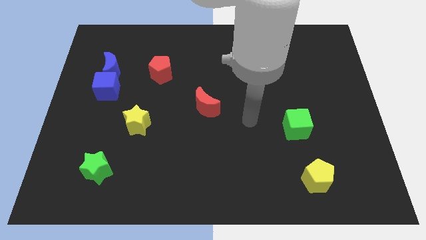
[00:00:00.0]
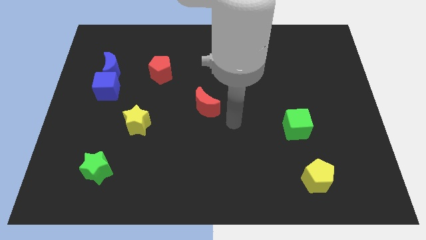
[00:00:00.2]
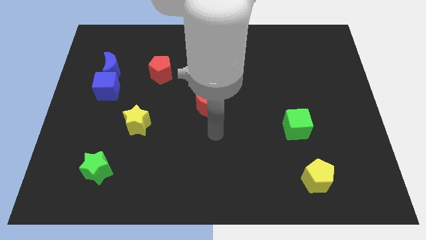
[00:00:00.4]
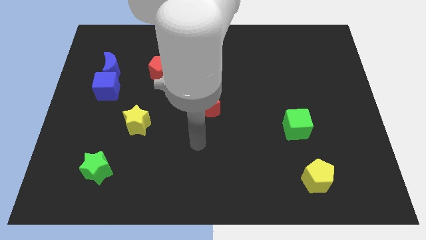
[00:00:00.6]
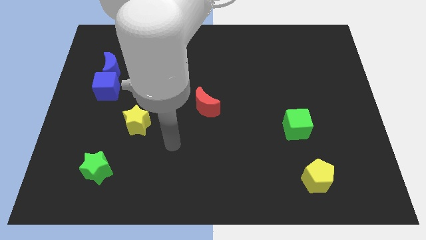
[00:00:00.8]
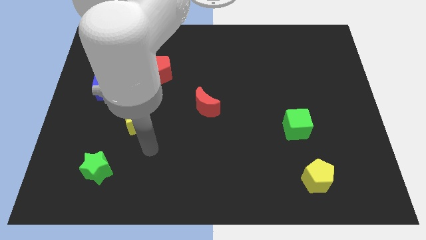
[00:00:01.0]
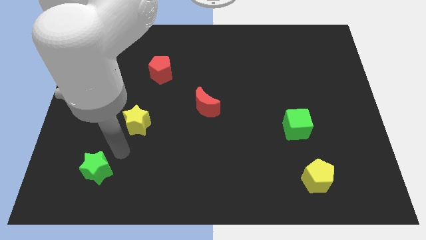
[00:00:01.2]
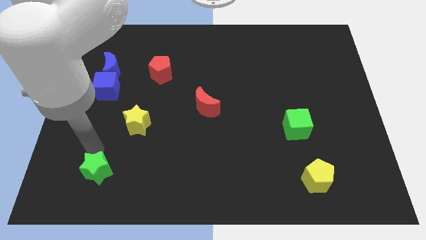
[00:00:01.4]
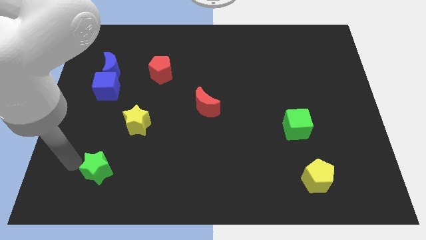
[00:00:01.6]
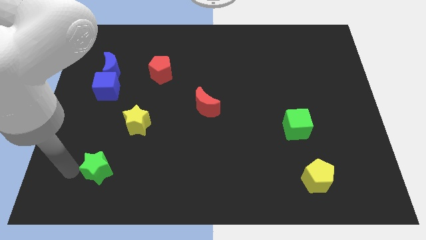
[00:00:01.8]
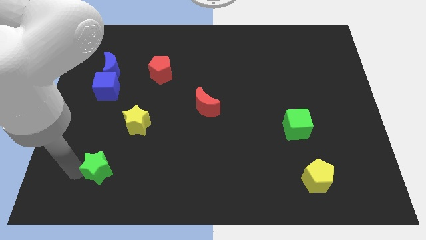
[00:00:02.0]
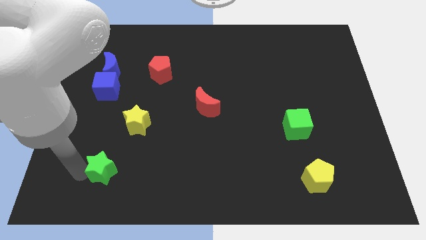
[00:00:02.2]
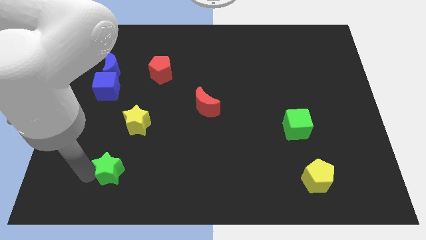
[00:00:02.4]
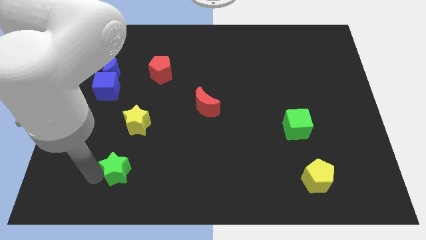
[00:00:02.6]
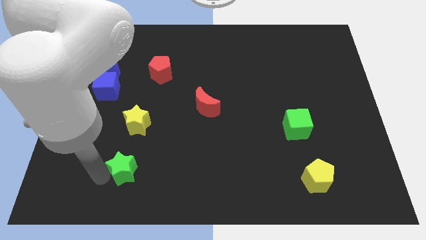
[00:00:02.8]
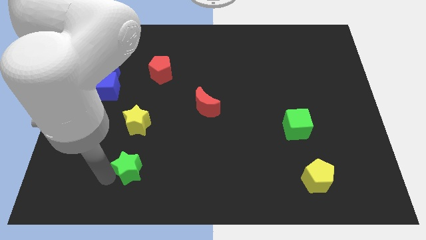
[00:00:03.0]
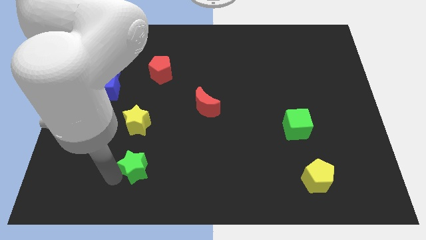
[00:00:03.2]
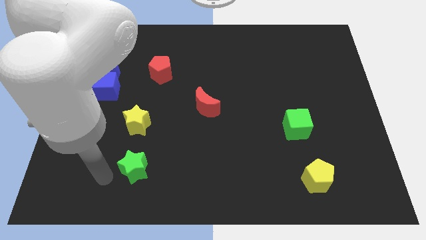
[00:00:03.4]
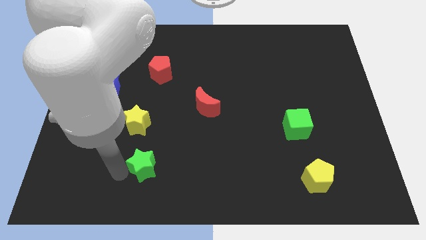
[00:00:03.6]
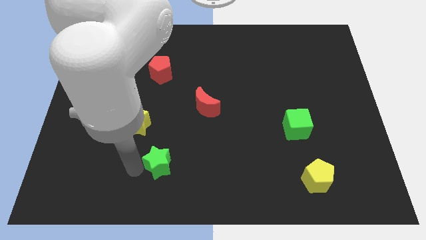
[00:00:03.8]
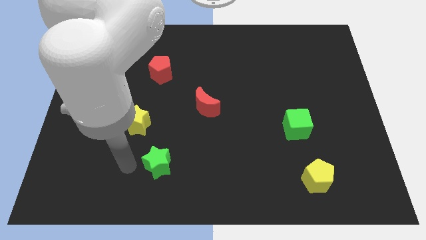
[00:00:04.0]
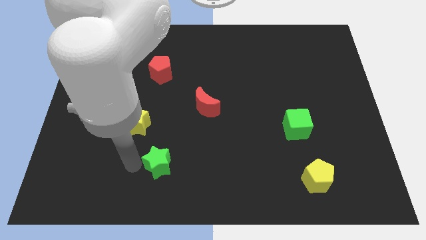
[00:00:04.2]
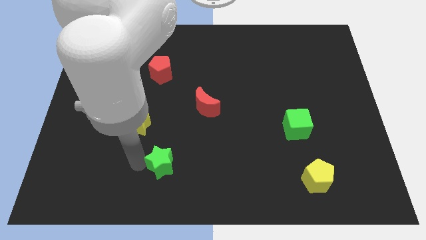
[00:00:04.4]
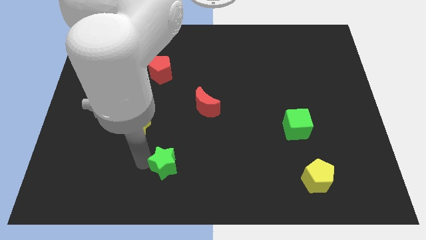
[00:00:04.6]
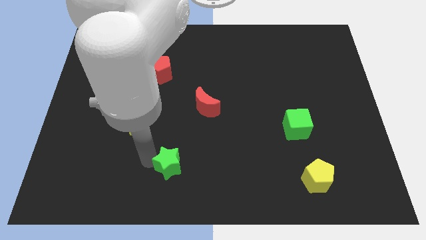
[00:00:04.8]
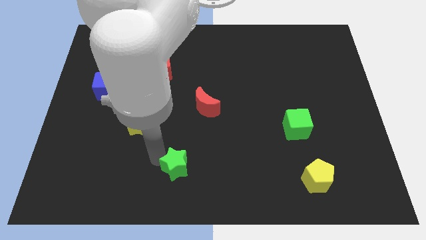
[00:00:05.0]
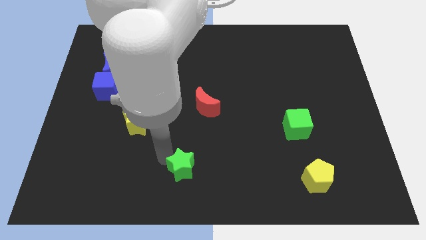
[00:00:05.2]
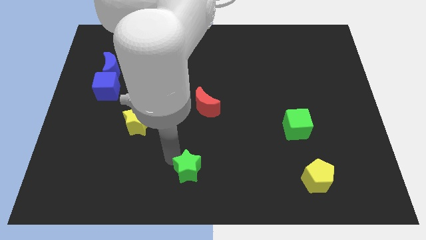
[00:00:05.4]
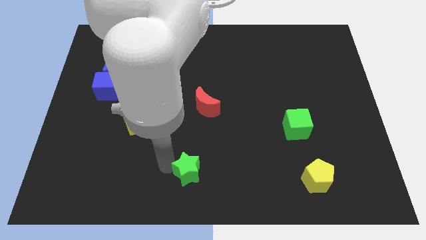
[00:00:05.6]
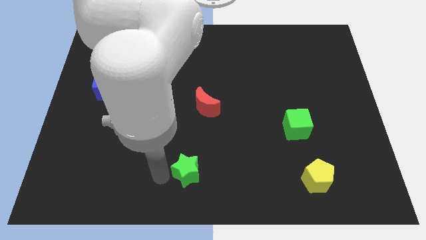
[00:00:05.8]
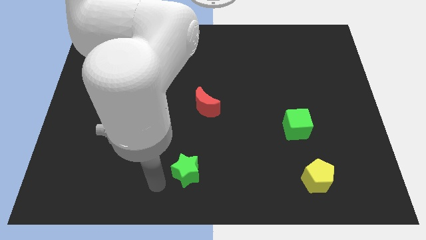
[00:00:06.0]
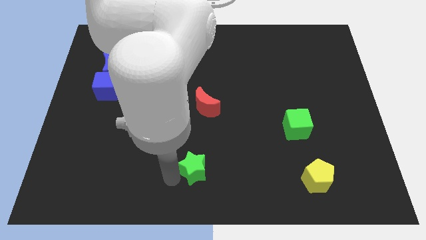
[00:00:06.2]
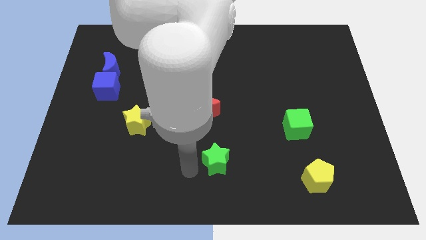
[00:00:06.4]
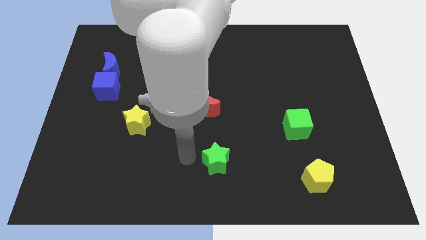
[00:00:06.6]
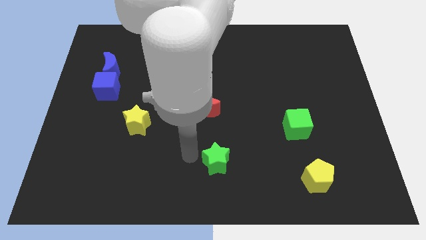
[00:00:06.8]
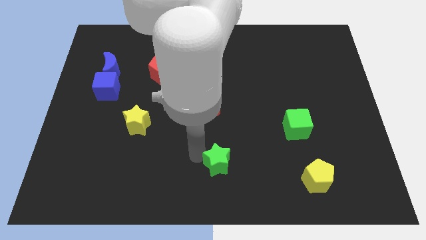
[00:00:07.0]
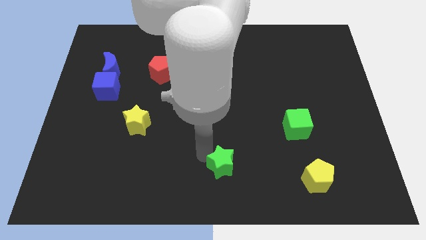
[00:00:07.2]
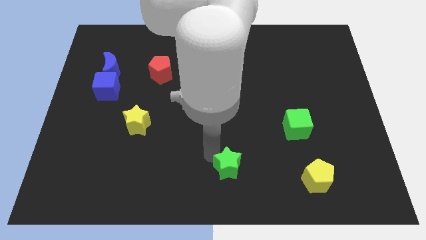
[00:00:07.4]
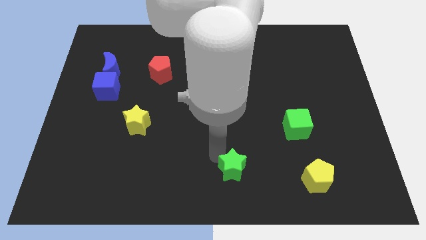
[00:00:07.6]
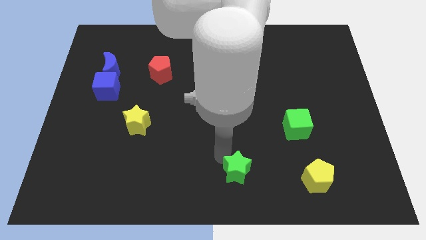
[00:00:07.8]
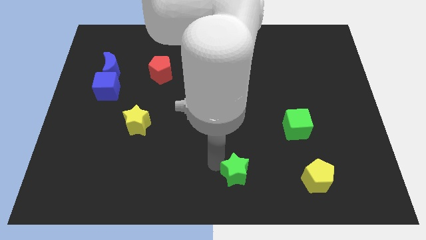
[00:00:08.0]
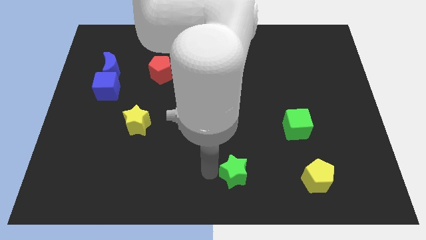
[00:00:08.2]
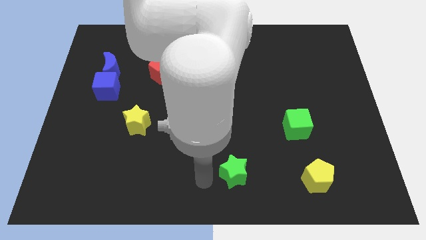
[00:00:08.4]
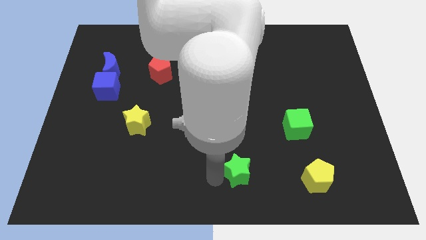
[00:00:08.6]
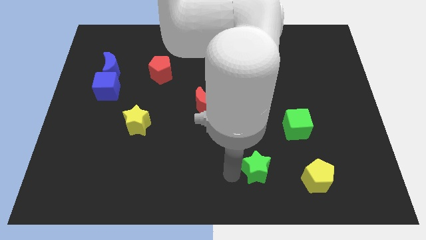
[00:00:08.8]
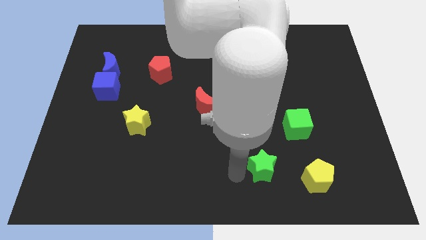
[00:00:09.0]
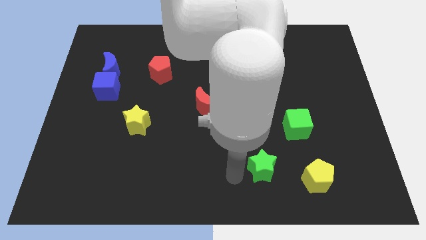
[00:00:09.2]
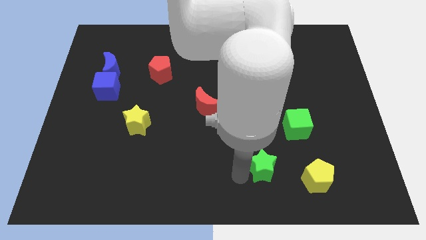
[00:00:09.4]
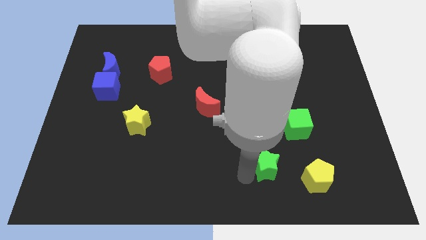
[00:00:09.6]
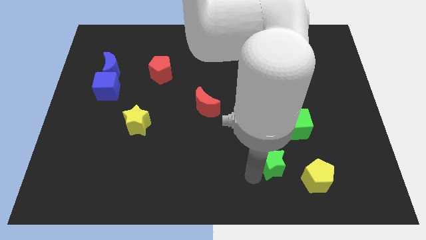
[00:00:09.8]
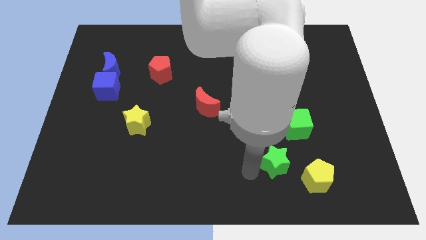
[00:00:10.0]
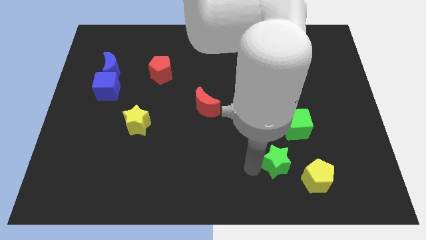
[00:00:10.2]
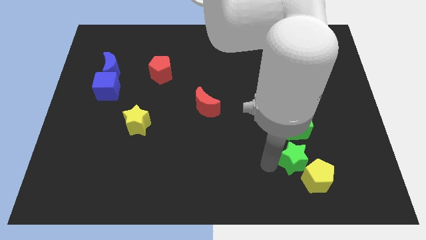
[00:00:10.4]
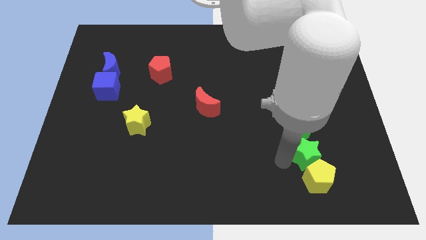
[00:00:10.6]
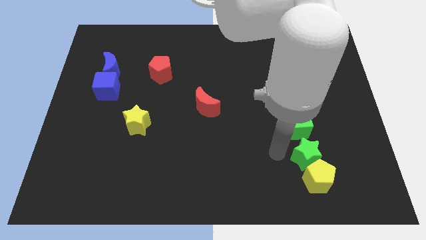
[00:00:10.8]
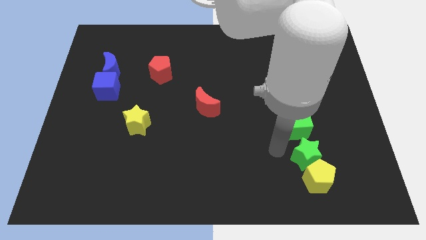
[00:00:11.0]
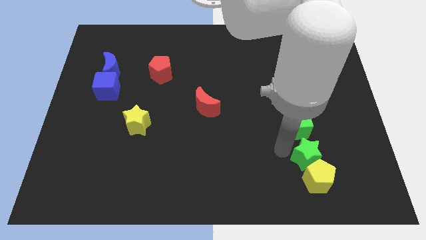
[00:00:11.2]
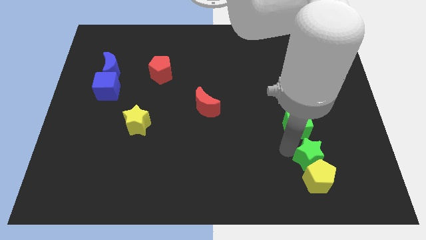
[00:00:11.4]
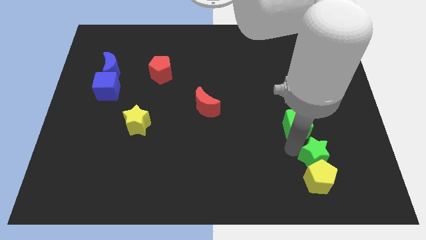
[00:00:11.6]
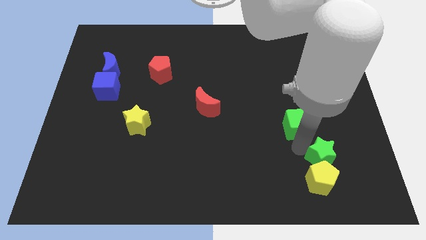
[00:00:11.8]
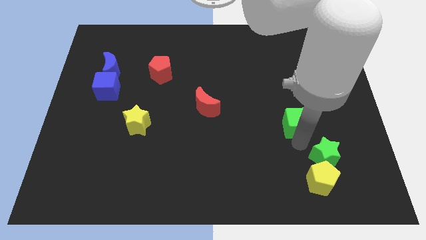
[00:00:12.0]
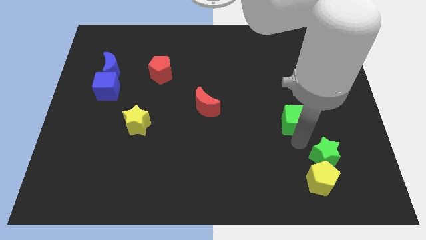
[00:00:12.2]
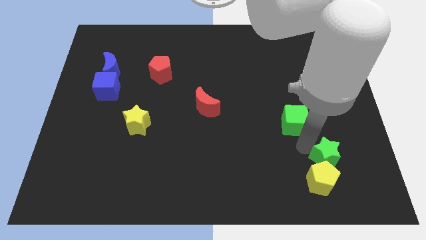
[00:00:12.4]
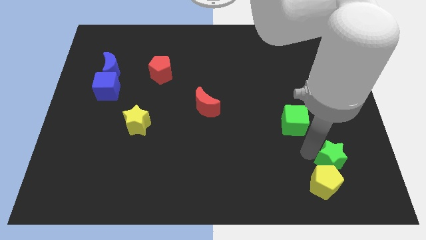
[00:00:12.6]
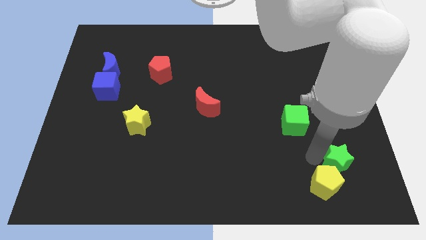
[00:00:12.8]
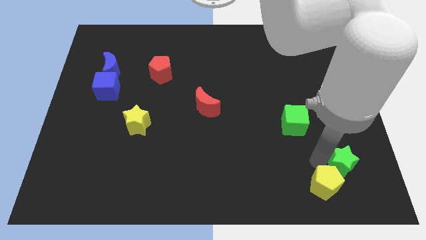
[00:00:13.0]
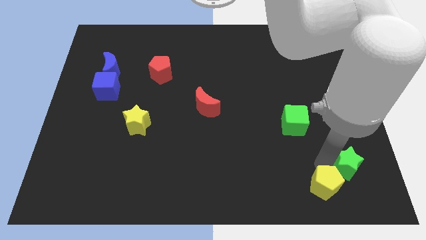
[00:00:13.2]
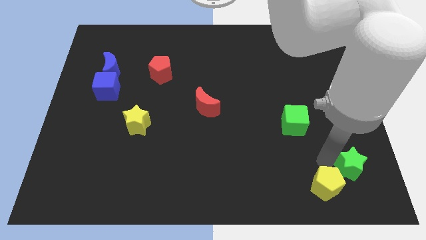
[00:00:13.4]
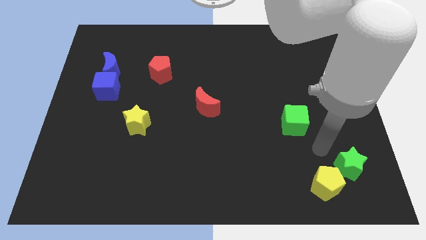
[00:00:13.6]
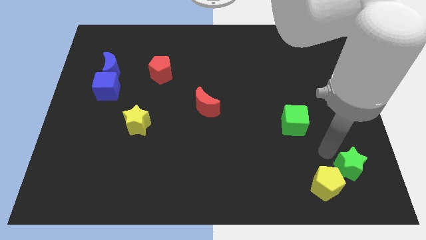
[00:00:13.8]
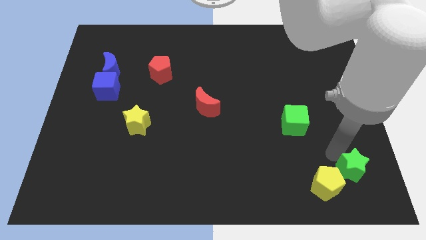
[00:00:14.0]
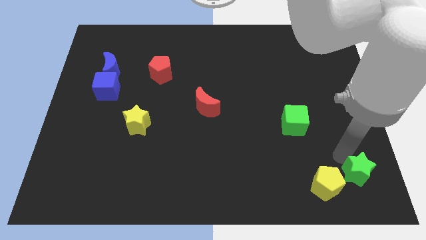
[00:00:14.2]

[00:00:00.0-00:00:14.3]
put the green star to the lower right corner

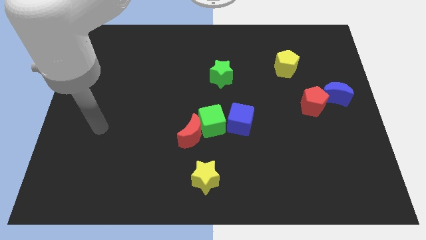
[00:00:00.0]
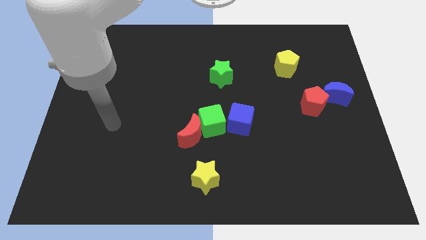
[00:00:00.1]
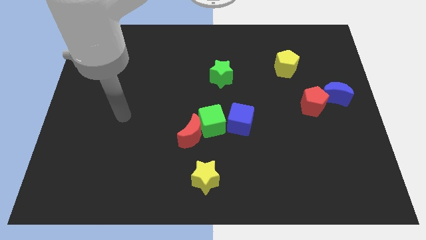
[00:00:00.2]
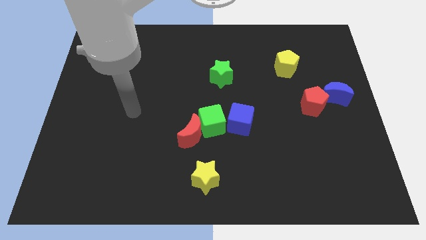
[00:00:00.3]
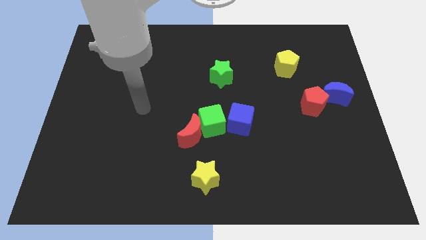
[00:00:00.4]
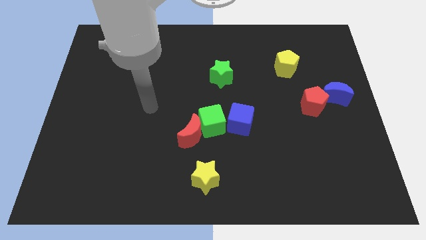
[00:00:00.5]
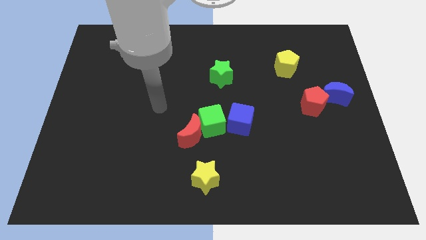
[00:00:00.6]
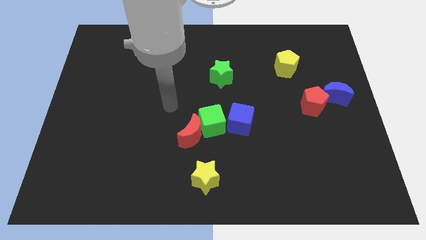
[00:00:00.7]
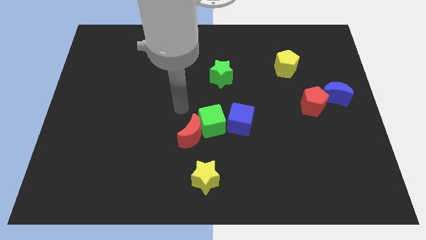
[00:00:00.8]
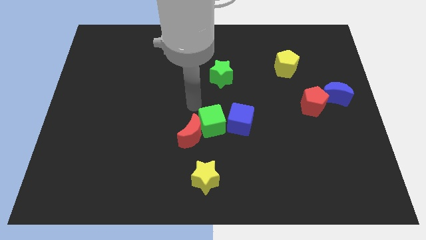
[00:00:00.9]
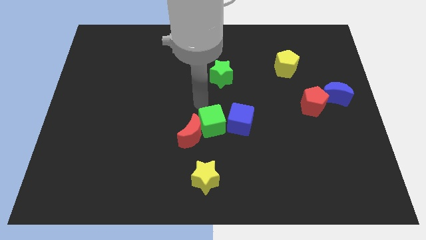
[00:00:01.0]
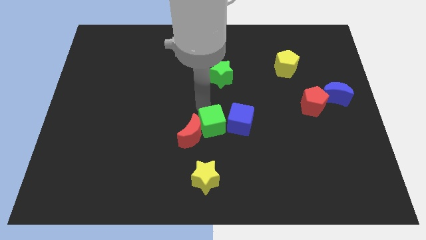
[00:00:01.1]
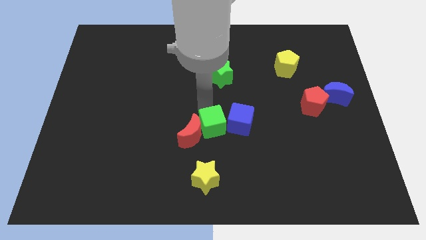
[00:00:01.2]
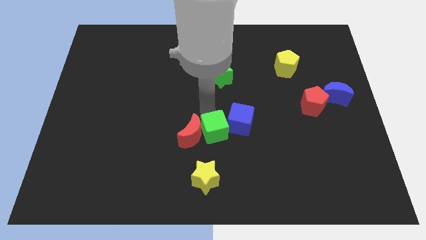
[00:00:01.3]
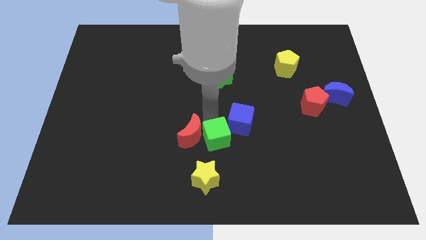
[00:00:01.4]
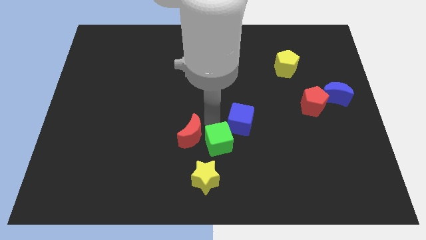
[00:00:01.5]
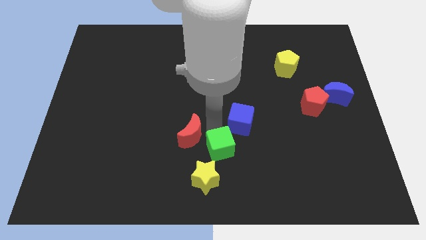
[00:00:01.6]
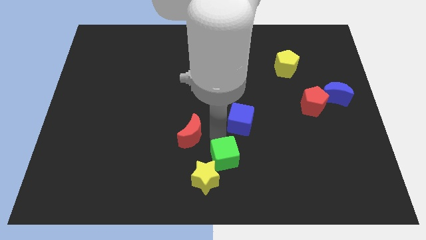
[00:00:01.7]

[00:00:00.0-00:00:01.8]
slide the green cube to the bottom
